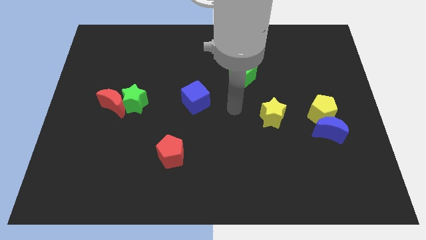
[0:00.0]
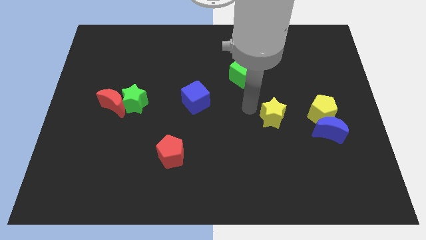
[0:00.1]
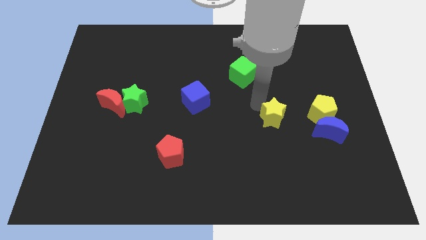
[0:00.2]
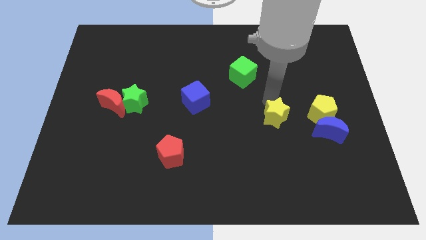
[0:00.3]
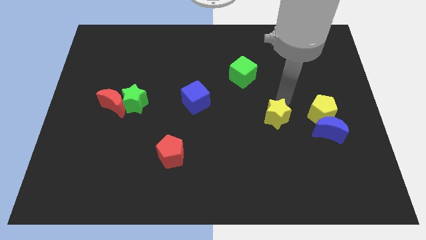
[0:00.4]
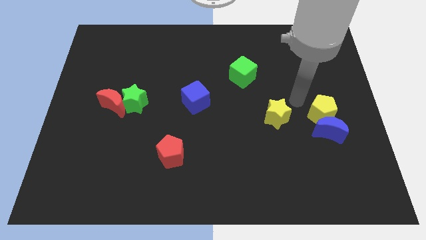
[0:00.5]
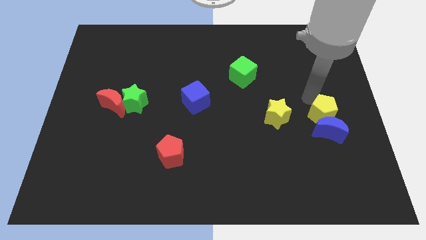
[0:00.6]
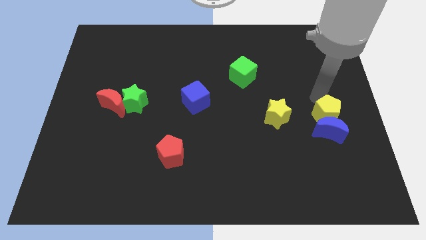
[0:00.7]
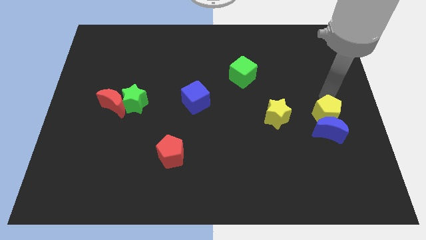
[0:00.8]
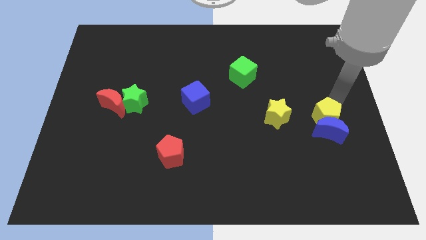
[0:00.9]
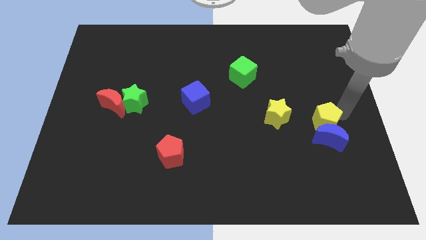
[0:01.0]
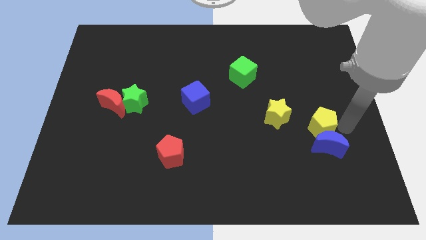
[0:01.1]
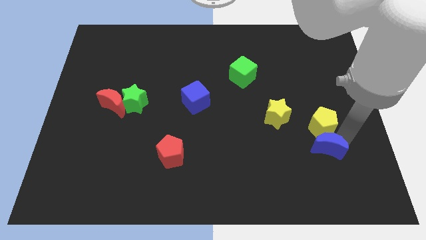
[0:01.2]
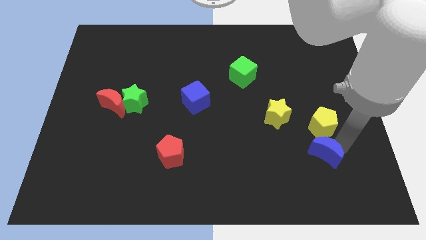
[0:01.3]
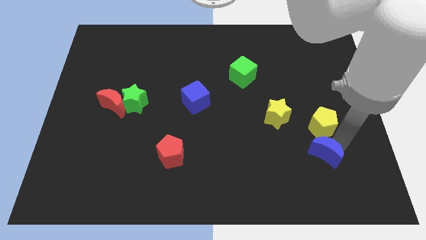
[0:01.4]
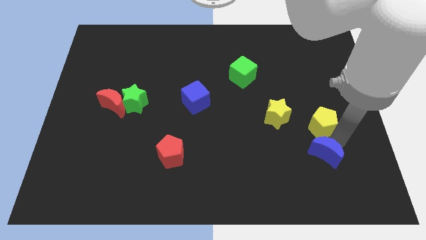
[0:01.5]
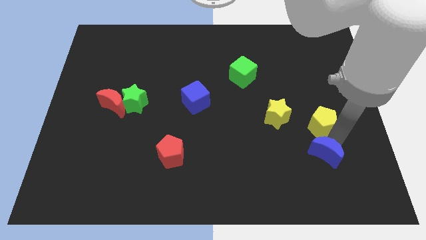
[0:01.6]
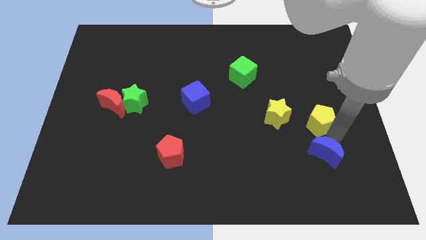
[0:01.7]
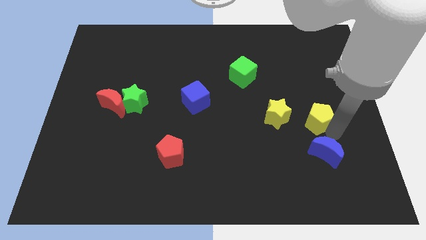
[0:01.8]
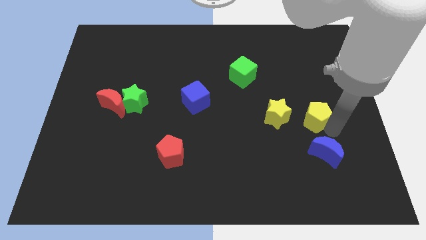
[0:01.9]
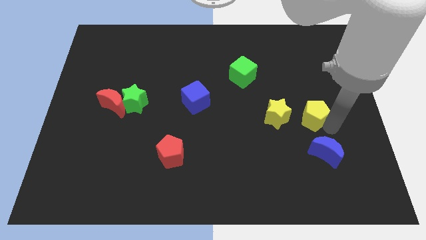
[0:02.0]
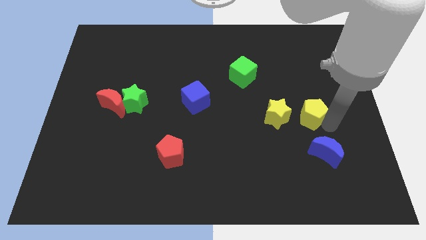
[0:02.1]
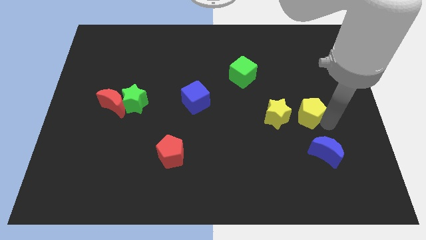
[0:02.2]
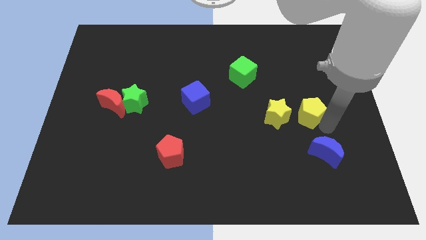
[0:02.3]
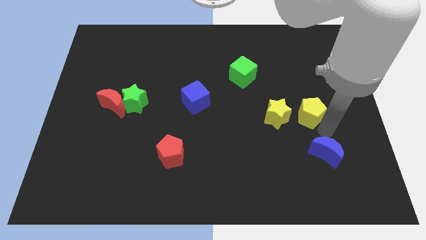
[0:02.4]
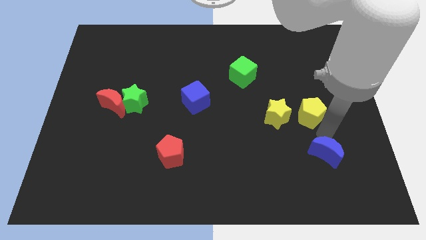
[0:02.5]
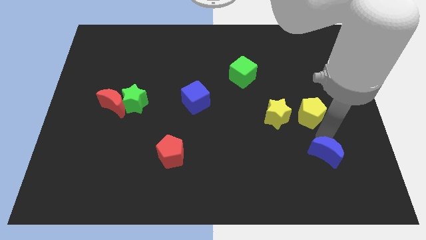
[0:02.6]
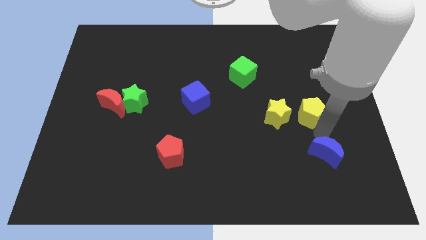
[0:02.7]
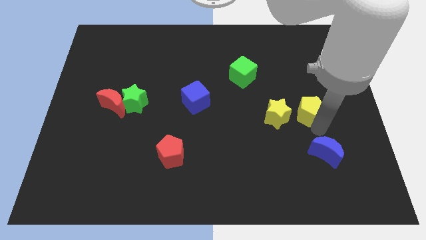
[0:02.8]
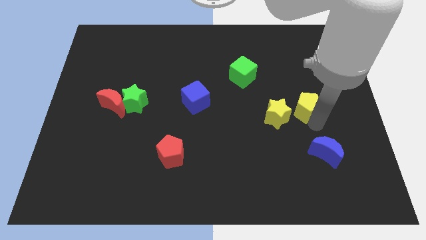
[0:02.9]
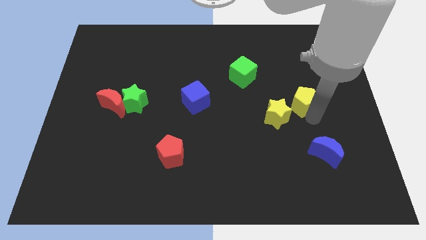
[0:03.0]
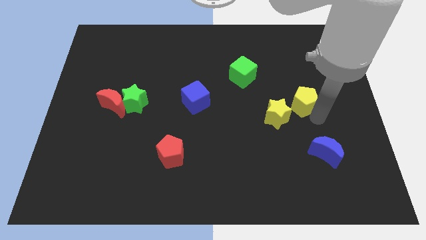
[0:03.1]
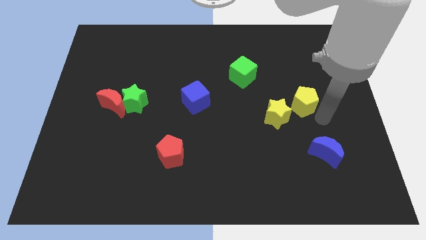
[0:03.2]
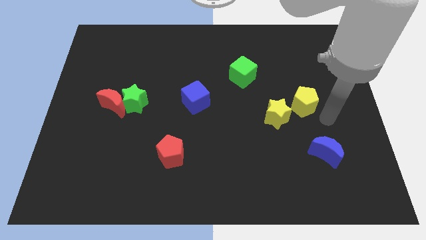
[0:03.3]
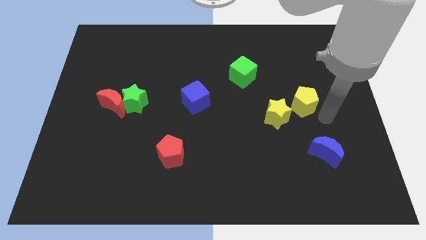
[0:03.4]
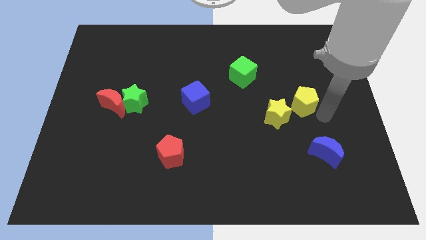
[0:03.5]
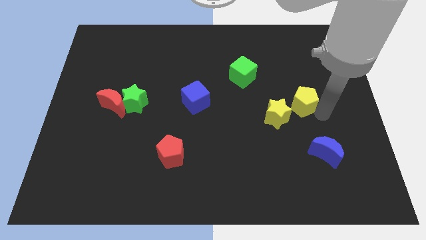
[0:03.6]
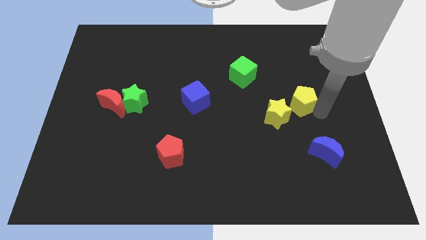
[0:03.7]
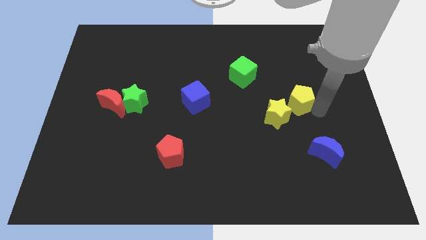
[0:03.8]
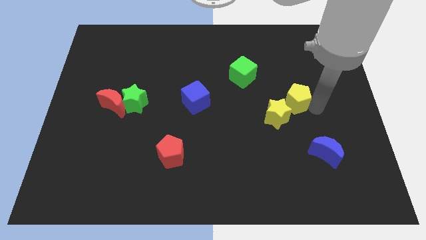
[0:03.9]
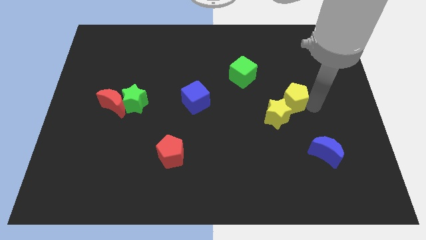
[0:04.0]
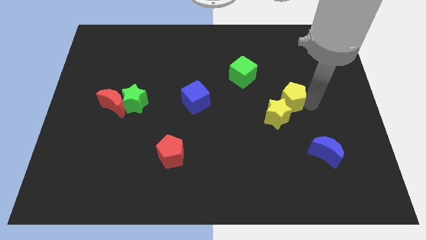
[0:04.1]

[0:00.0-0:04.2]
slide the yellow pentagon a little upwards and then left

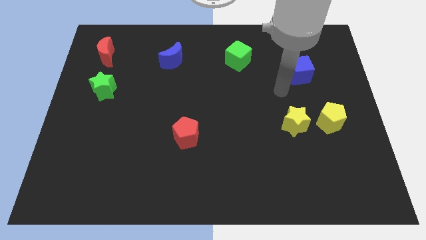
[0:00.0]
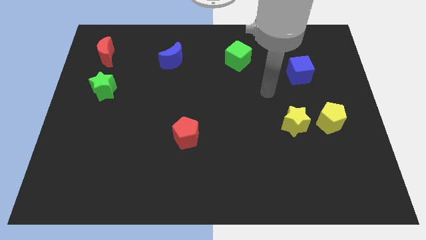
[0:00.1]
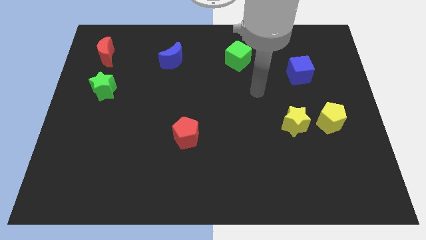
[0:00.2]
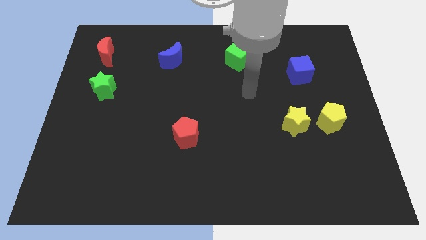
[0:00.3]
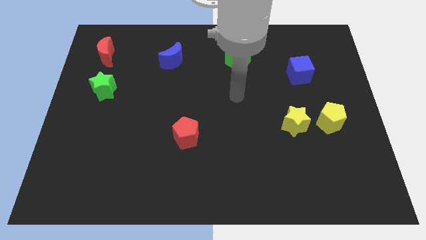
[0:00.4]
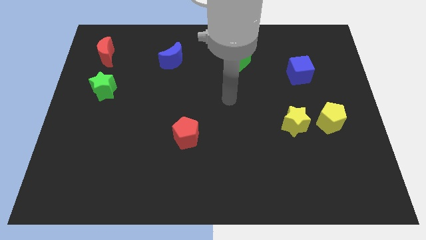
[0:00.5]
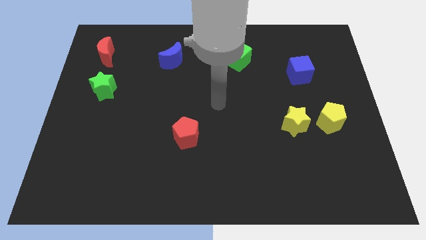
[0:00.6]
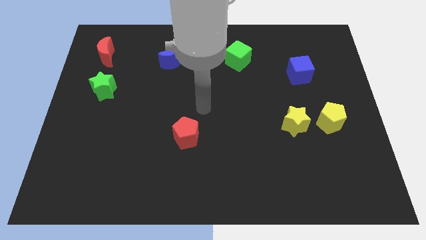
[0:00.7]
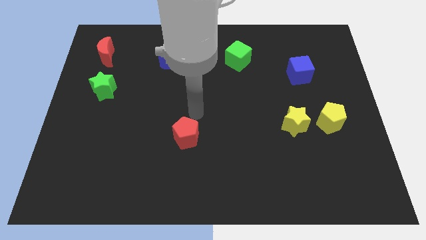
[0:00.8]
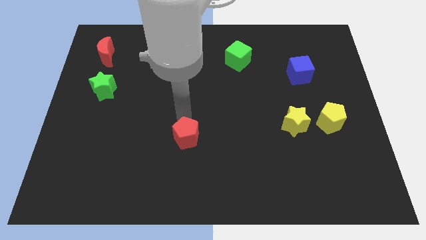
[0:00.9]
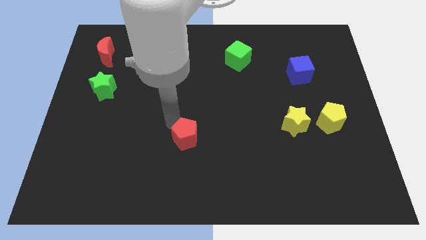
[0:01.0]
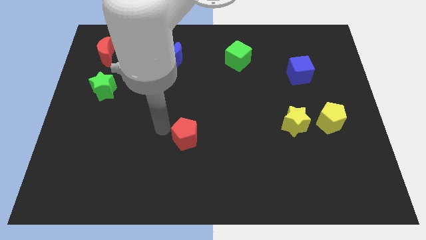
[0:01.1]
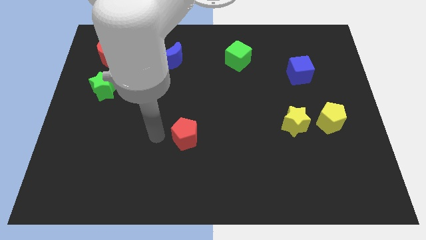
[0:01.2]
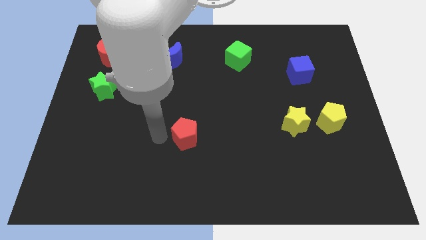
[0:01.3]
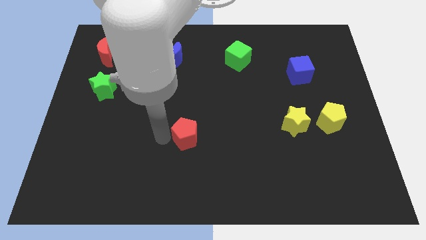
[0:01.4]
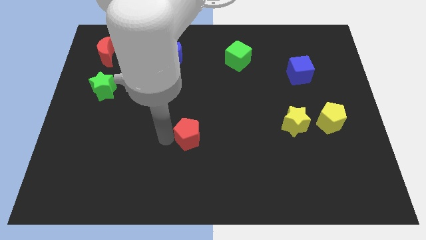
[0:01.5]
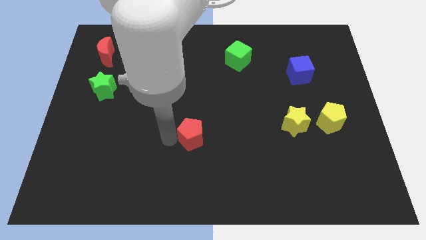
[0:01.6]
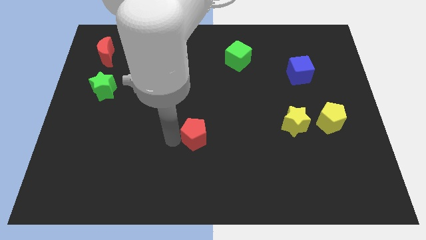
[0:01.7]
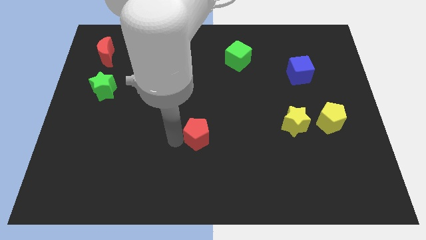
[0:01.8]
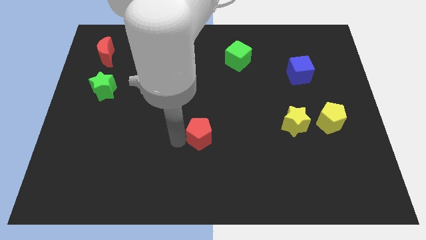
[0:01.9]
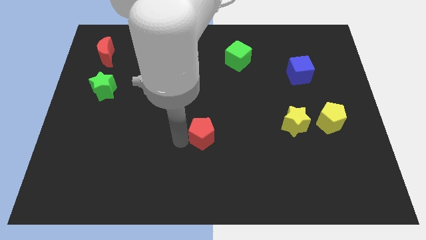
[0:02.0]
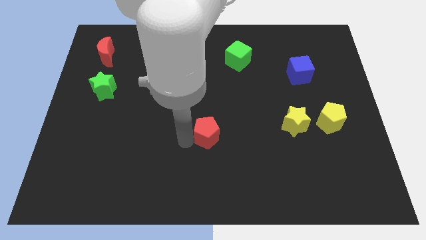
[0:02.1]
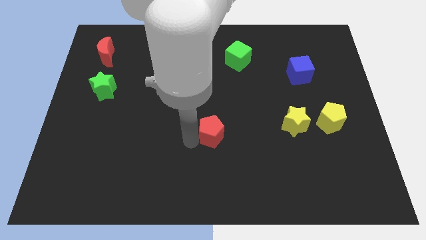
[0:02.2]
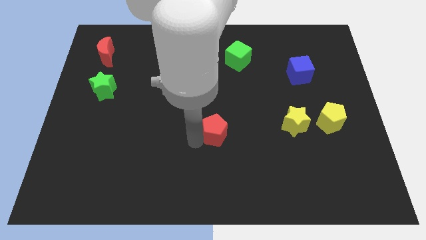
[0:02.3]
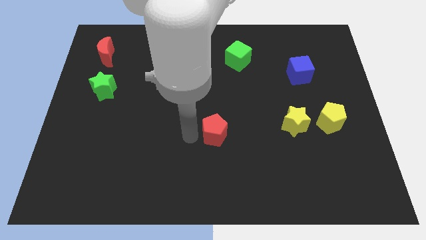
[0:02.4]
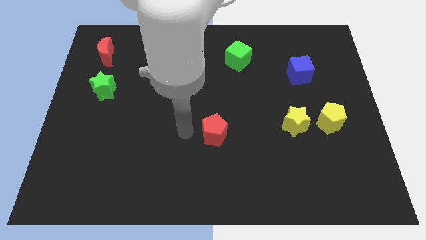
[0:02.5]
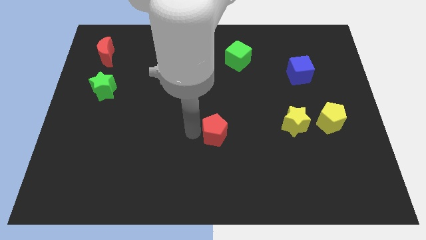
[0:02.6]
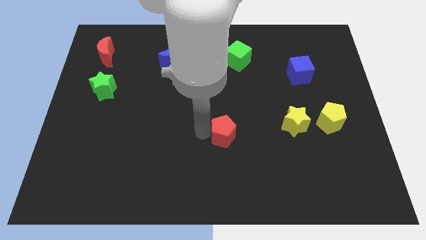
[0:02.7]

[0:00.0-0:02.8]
slightly push the red pentagon to the right

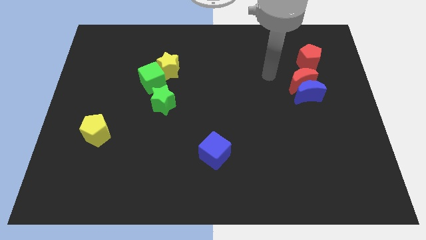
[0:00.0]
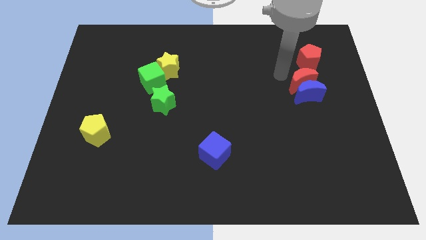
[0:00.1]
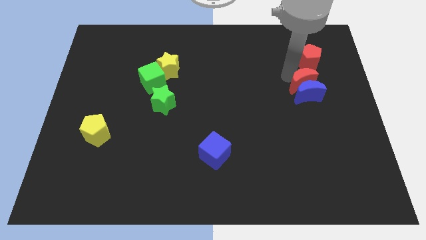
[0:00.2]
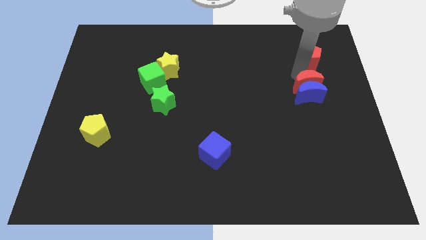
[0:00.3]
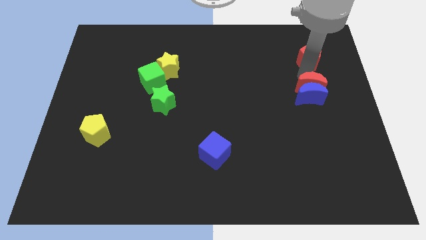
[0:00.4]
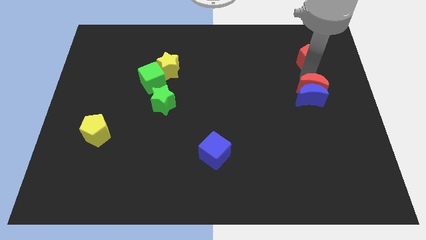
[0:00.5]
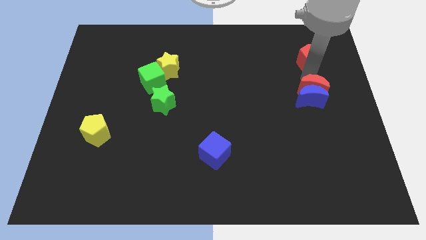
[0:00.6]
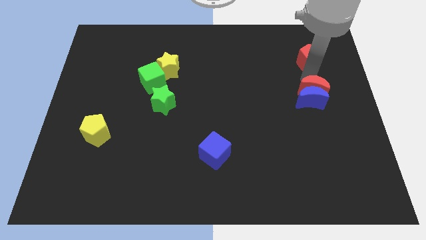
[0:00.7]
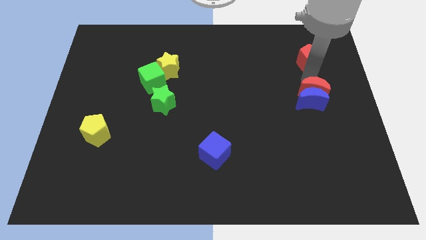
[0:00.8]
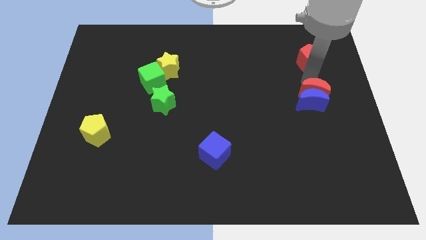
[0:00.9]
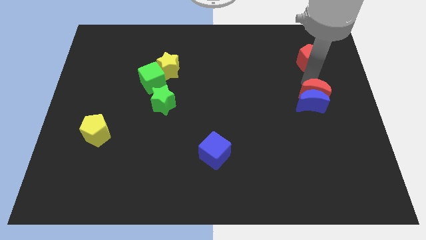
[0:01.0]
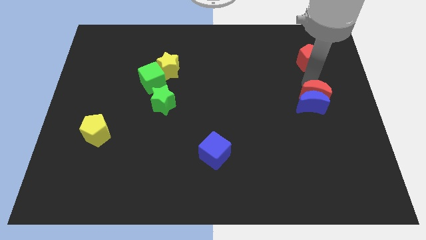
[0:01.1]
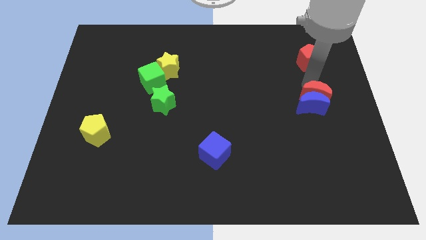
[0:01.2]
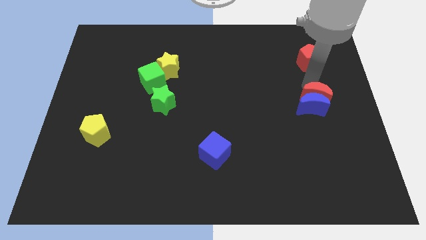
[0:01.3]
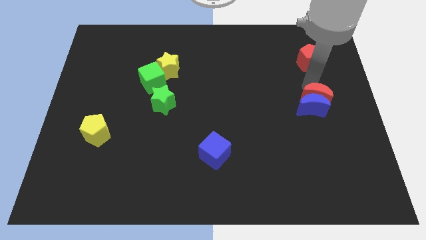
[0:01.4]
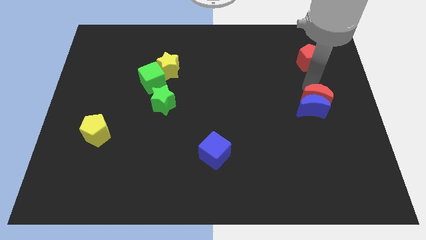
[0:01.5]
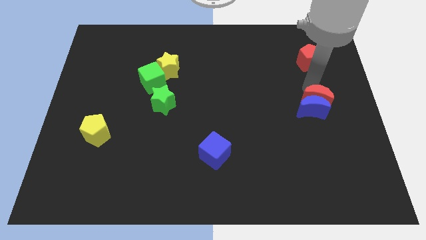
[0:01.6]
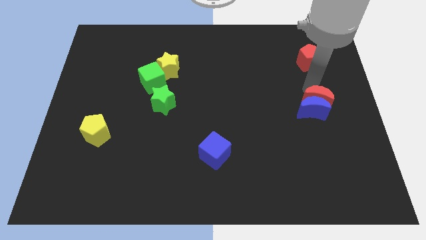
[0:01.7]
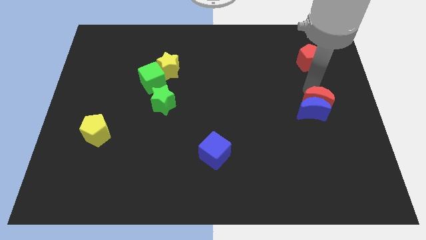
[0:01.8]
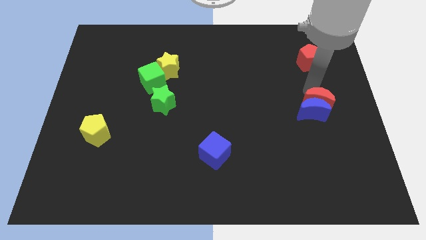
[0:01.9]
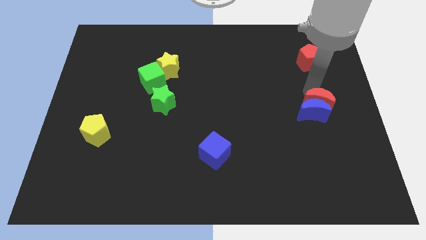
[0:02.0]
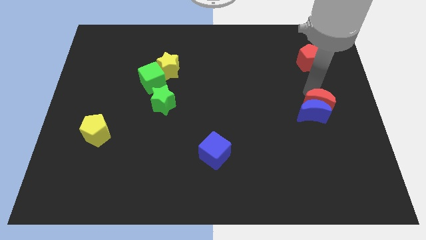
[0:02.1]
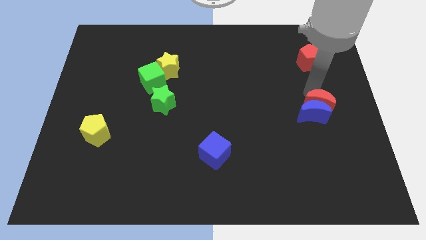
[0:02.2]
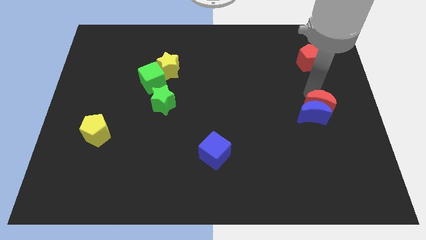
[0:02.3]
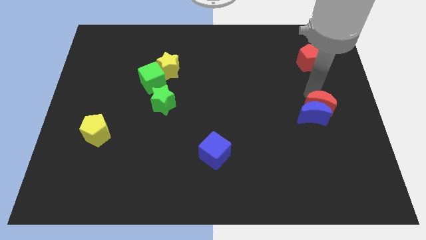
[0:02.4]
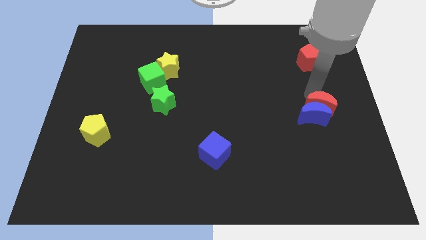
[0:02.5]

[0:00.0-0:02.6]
push the blue moon down a little
